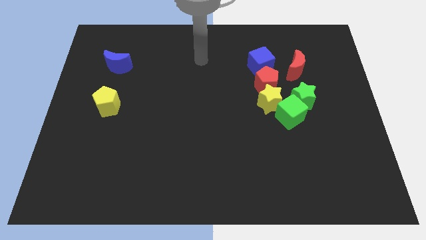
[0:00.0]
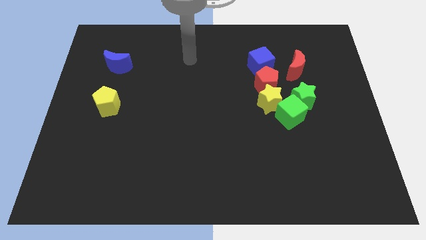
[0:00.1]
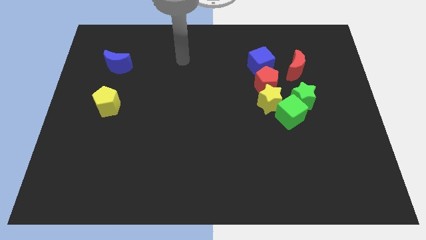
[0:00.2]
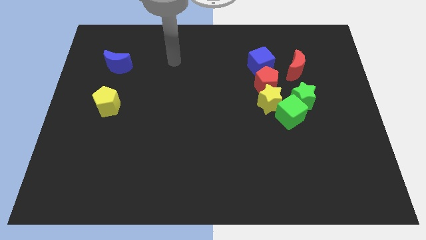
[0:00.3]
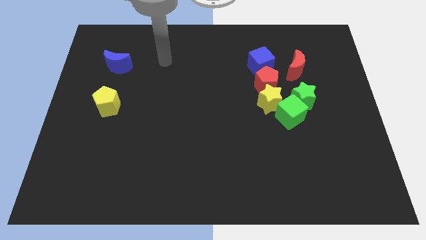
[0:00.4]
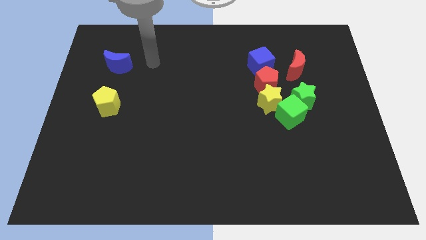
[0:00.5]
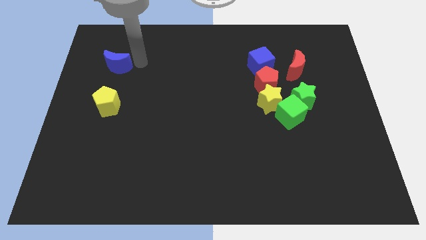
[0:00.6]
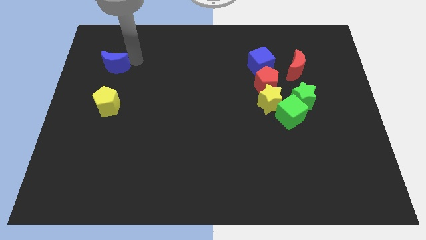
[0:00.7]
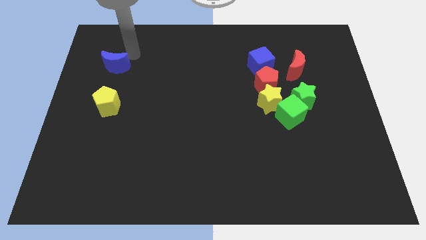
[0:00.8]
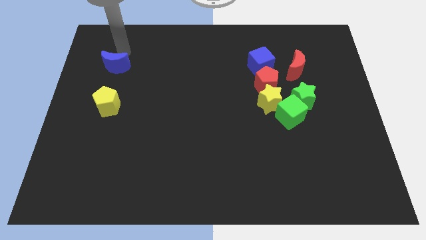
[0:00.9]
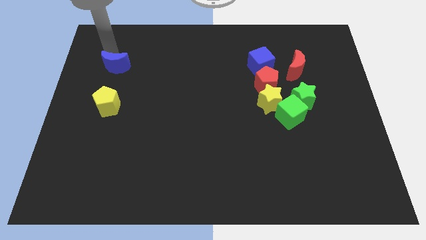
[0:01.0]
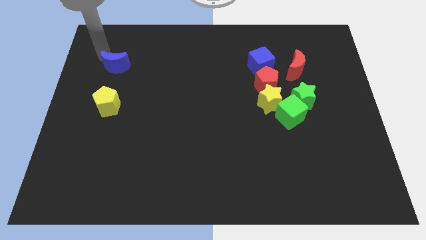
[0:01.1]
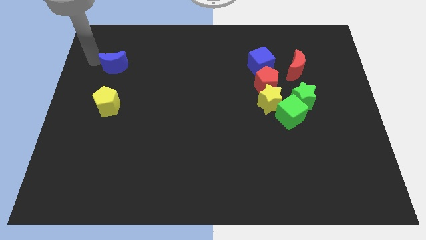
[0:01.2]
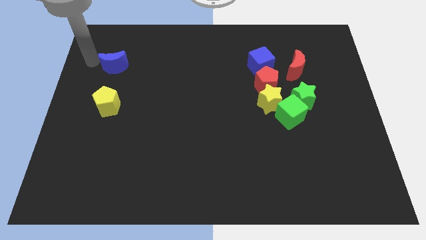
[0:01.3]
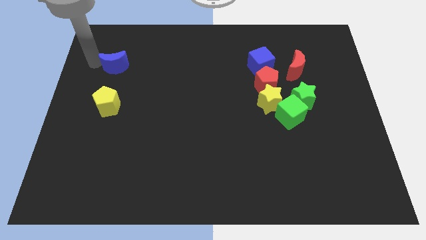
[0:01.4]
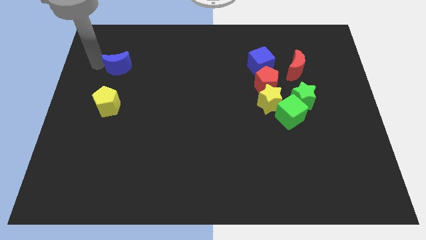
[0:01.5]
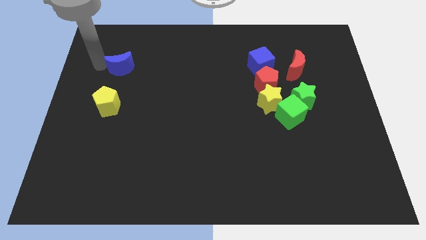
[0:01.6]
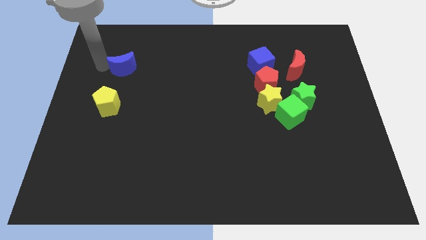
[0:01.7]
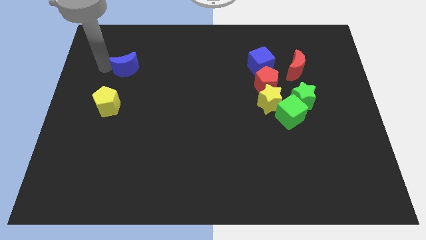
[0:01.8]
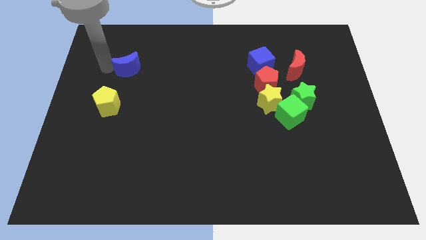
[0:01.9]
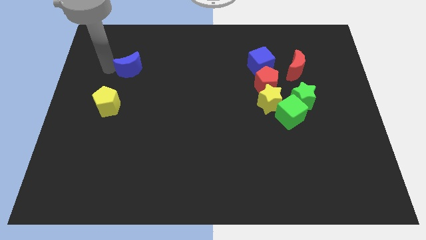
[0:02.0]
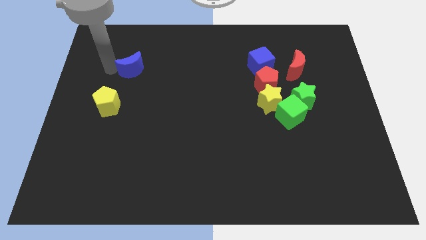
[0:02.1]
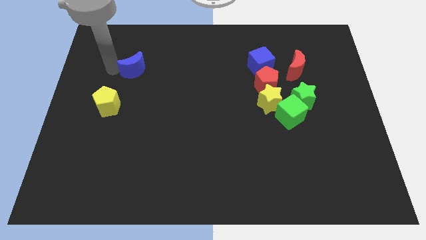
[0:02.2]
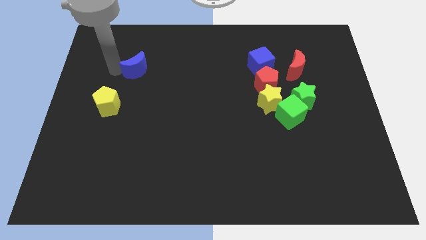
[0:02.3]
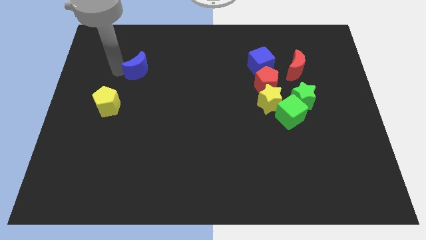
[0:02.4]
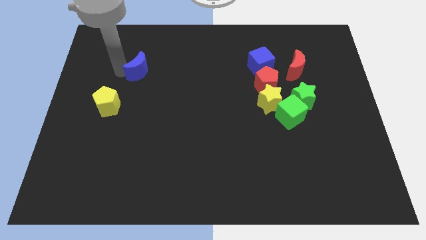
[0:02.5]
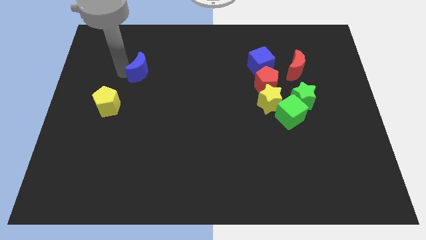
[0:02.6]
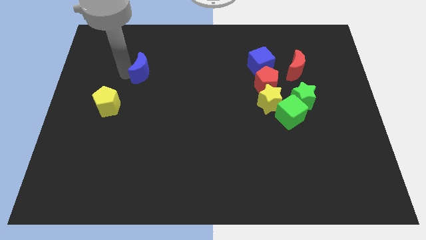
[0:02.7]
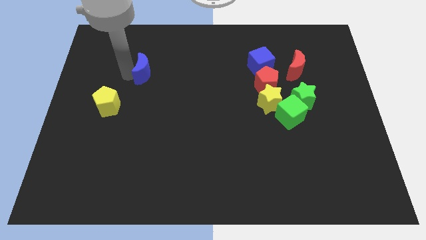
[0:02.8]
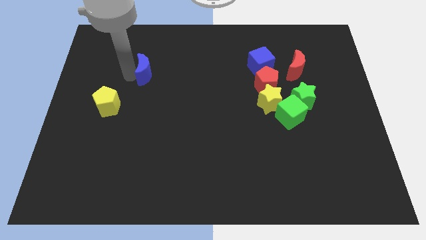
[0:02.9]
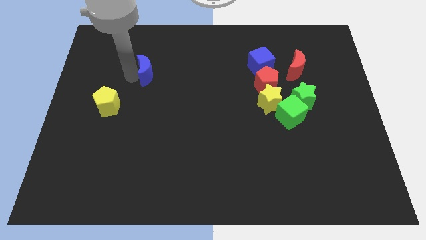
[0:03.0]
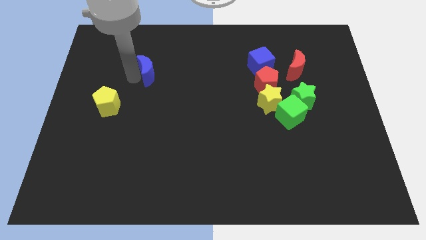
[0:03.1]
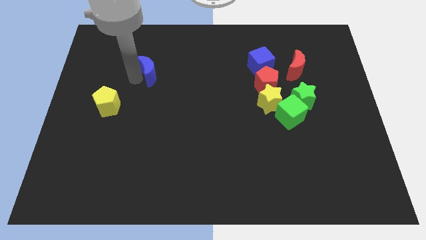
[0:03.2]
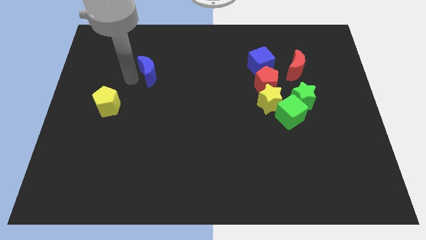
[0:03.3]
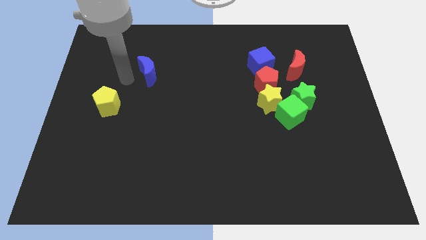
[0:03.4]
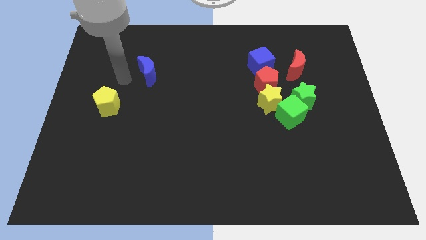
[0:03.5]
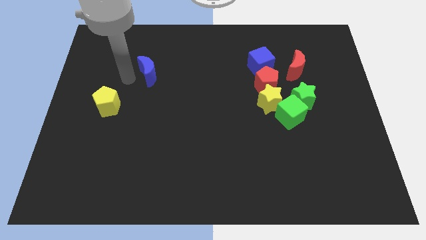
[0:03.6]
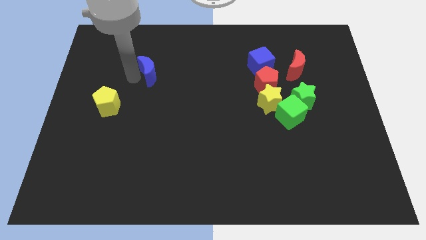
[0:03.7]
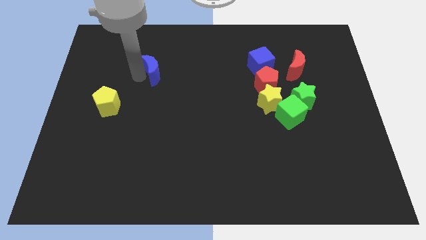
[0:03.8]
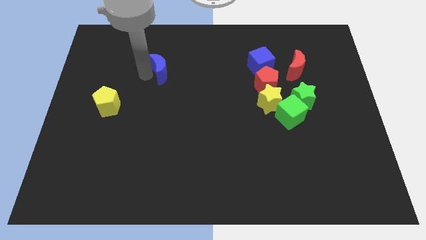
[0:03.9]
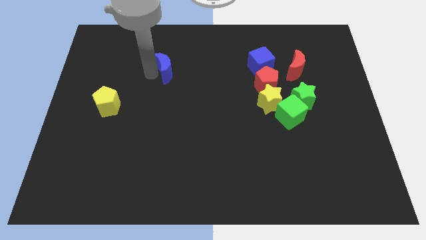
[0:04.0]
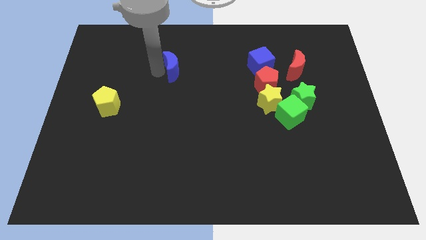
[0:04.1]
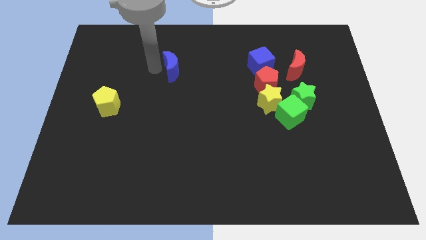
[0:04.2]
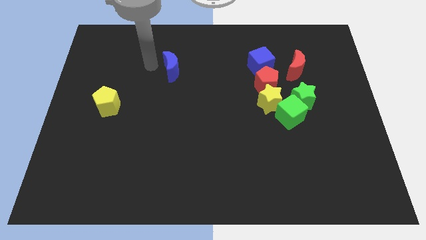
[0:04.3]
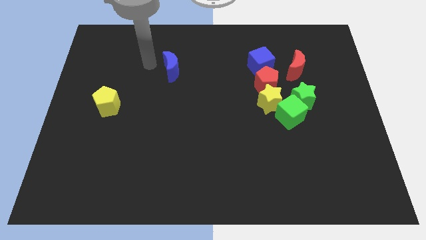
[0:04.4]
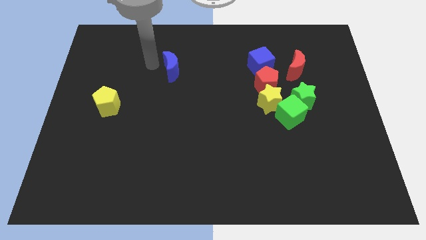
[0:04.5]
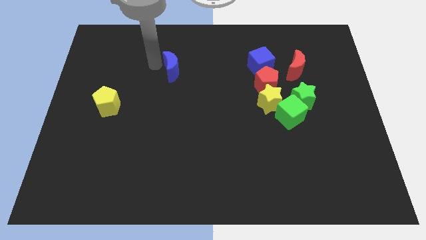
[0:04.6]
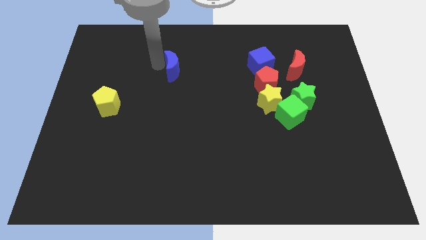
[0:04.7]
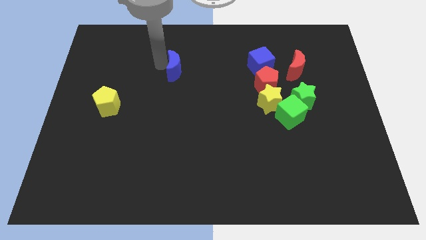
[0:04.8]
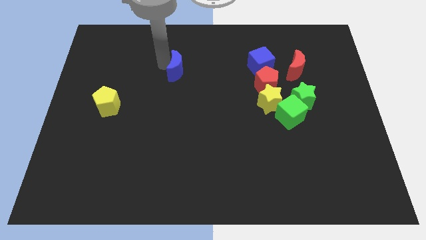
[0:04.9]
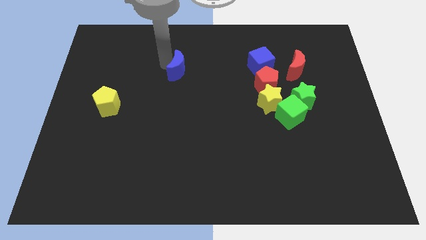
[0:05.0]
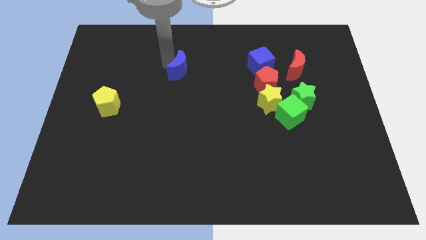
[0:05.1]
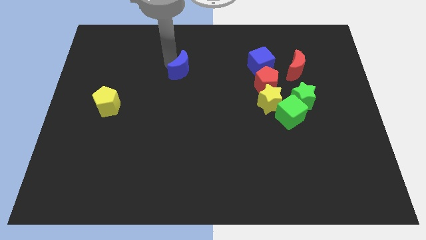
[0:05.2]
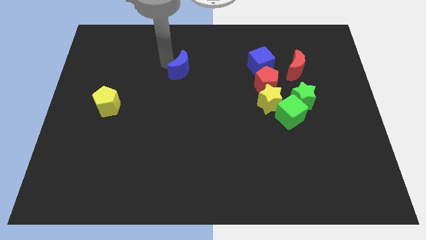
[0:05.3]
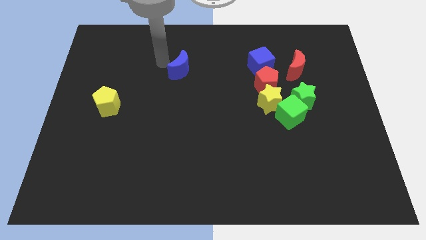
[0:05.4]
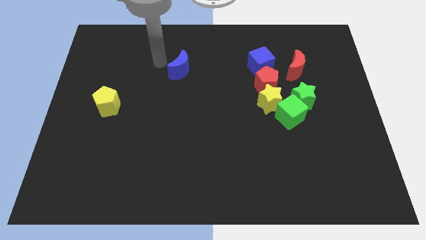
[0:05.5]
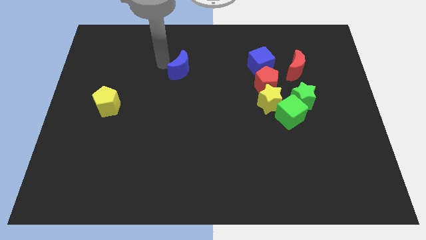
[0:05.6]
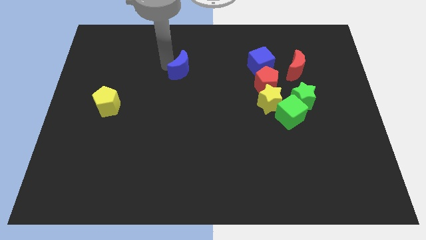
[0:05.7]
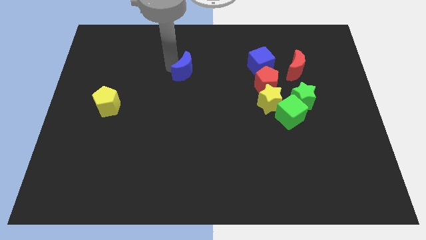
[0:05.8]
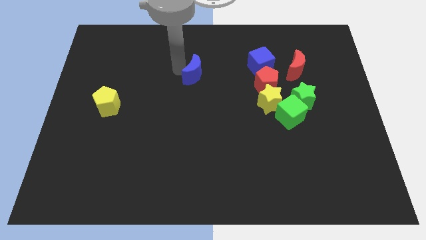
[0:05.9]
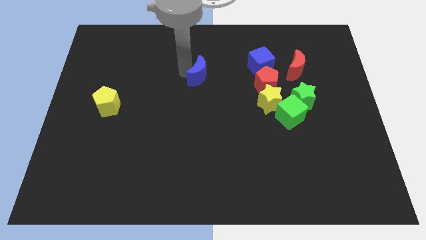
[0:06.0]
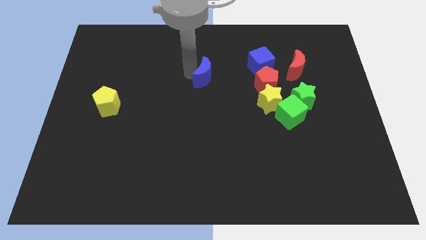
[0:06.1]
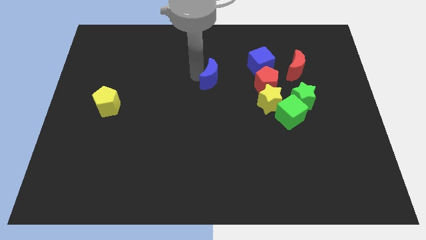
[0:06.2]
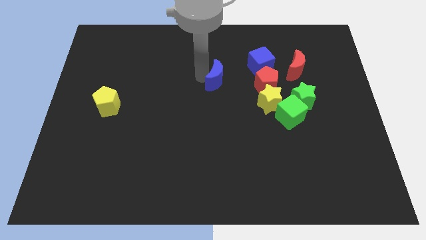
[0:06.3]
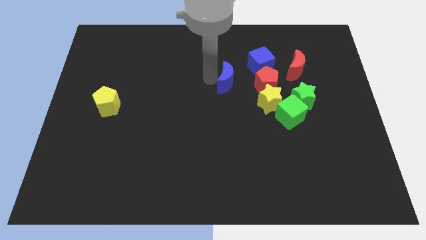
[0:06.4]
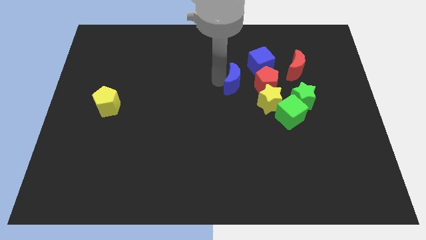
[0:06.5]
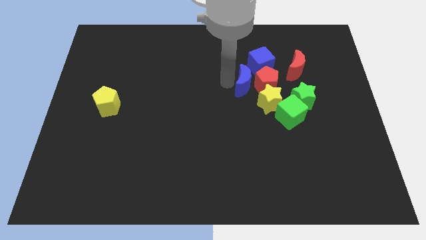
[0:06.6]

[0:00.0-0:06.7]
move the blue moon next to the red pentagon

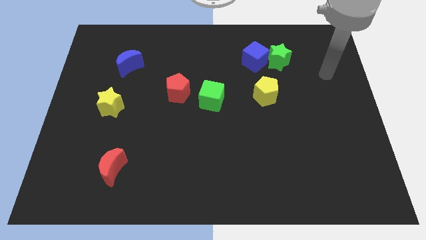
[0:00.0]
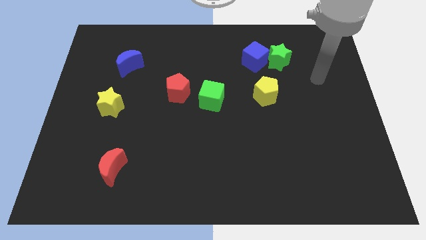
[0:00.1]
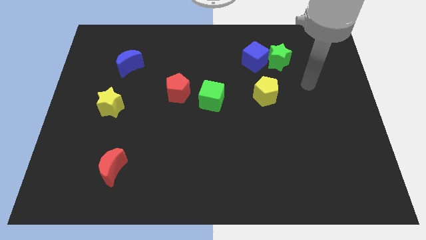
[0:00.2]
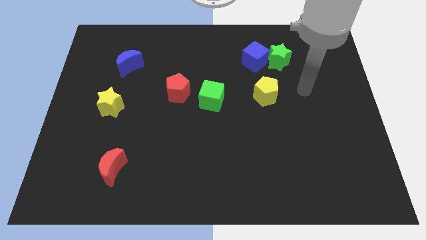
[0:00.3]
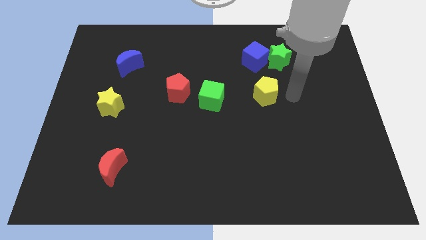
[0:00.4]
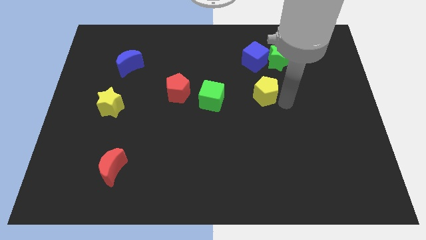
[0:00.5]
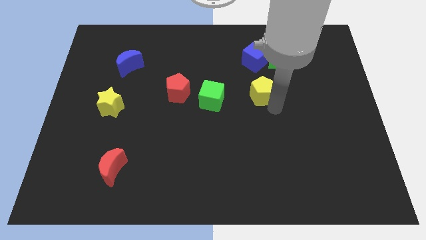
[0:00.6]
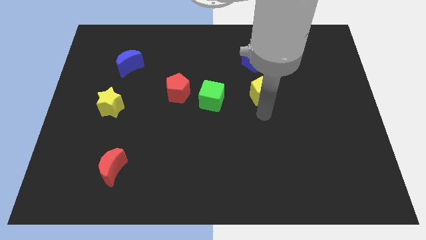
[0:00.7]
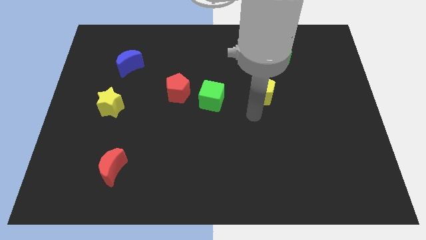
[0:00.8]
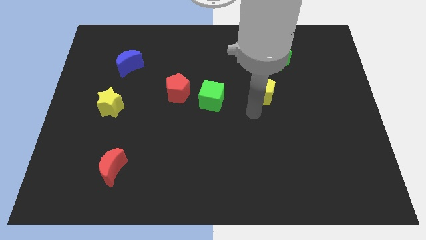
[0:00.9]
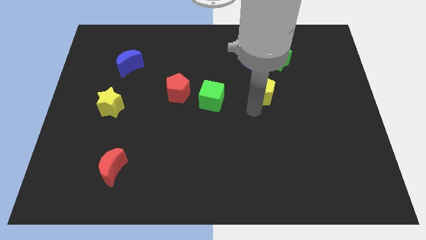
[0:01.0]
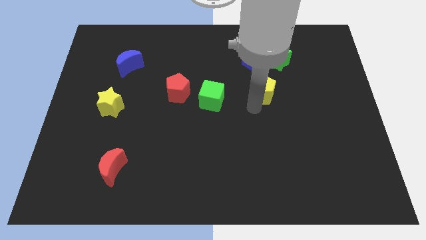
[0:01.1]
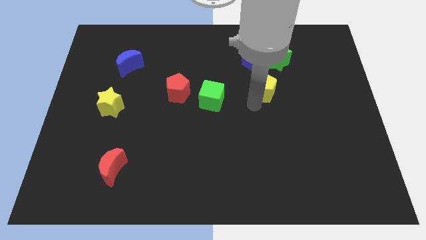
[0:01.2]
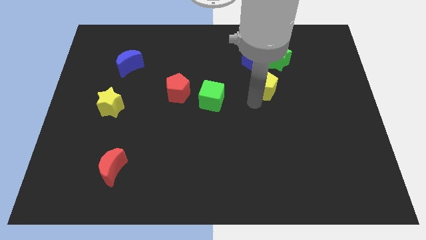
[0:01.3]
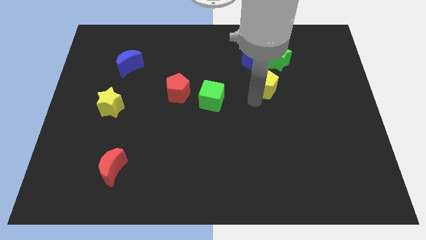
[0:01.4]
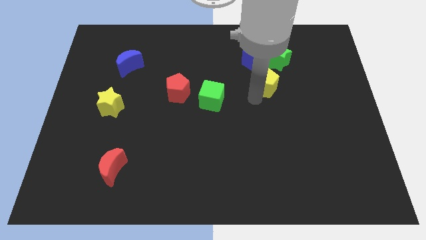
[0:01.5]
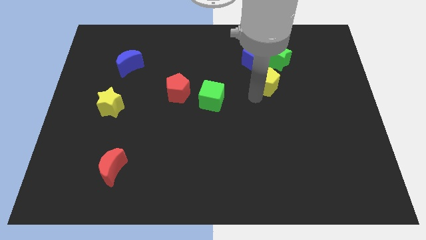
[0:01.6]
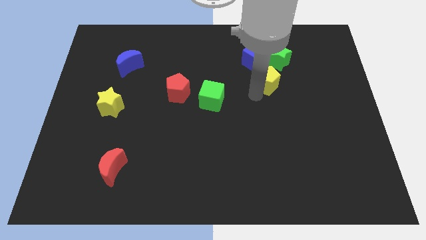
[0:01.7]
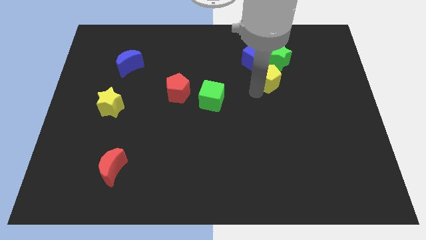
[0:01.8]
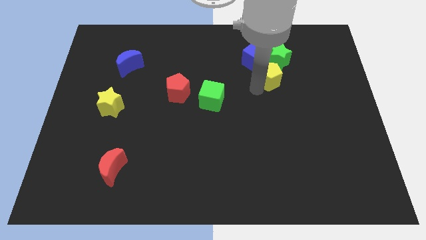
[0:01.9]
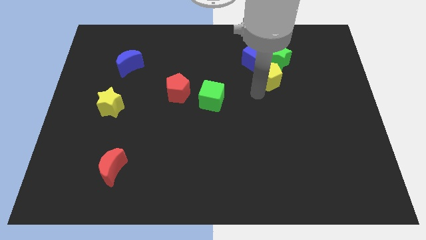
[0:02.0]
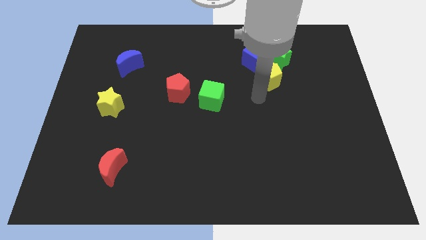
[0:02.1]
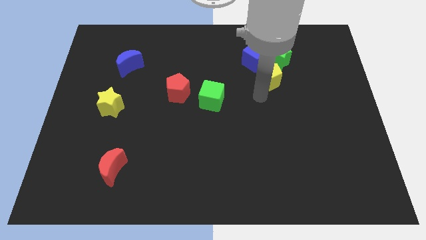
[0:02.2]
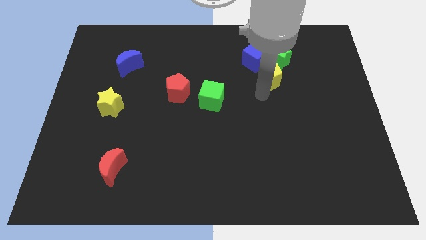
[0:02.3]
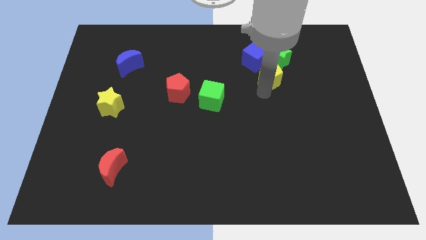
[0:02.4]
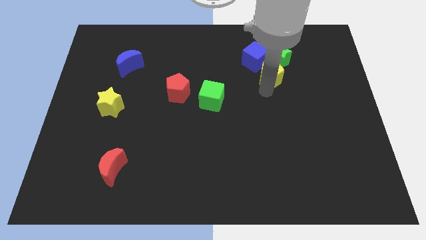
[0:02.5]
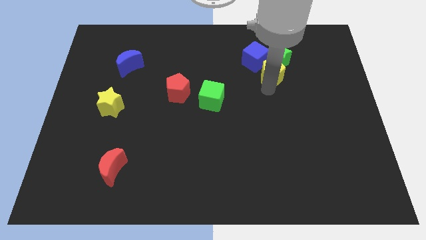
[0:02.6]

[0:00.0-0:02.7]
move the yellow pentagon close to the green star
